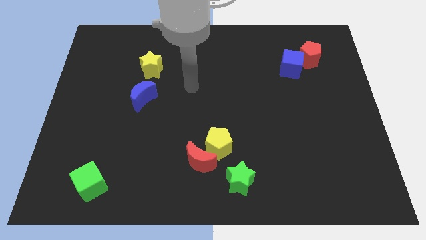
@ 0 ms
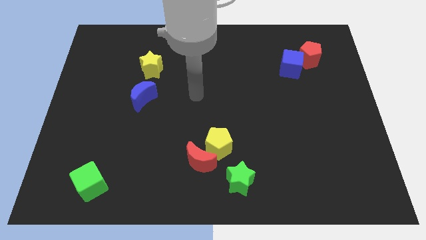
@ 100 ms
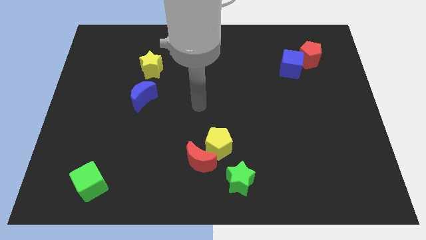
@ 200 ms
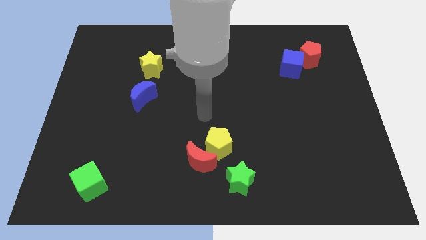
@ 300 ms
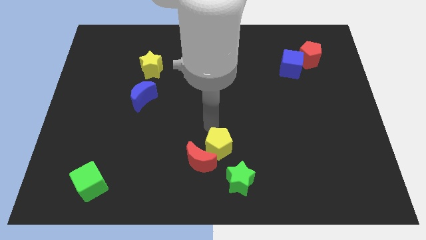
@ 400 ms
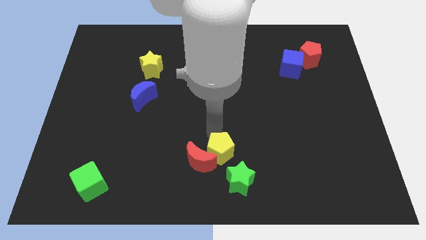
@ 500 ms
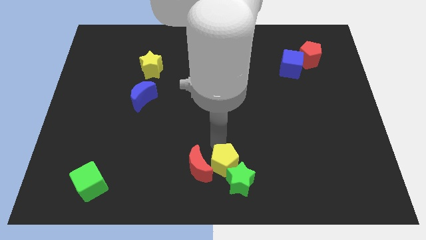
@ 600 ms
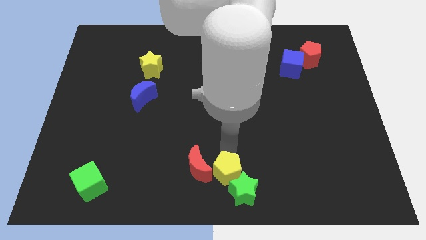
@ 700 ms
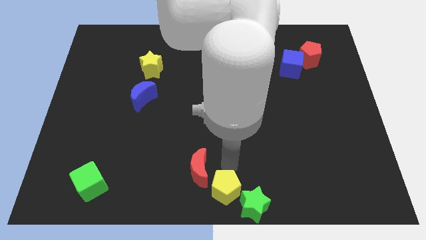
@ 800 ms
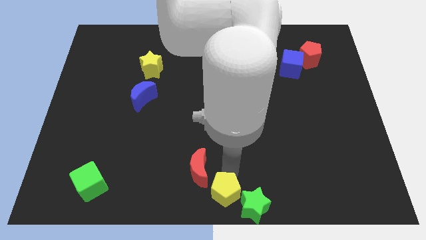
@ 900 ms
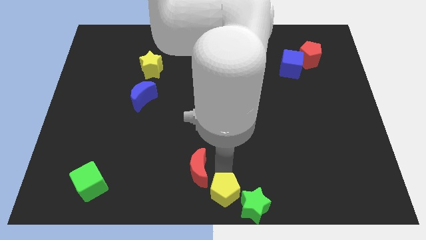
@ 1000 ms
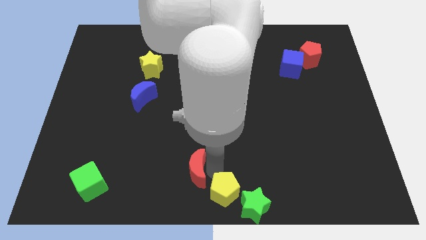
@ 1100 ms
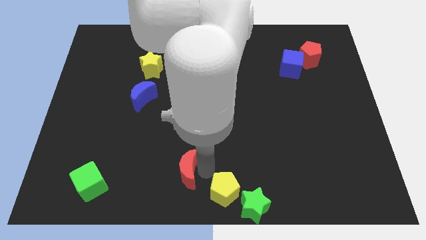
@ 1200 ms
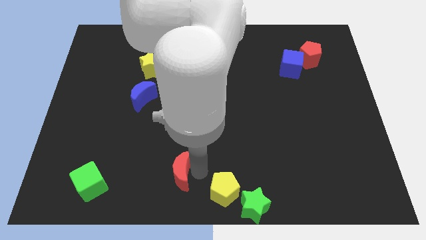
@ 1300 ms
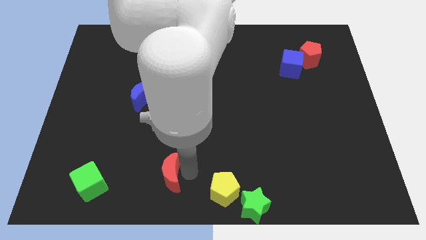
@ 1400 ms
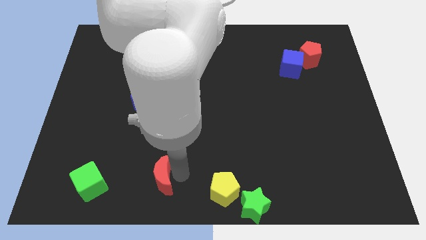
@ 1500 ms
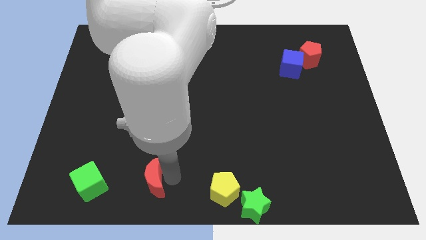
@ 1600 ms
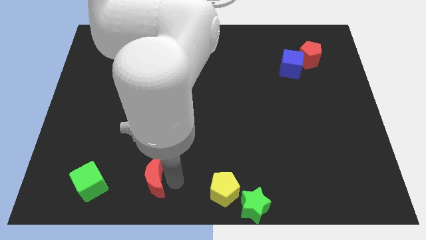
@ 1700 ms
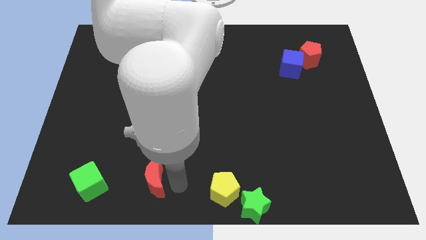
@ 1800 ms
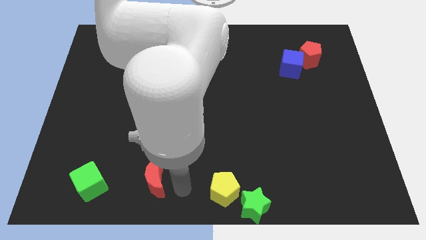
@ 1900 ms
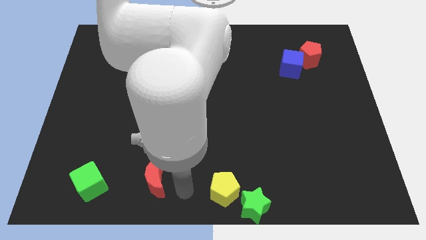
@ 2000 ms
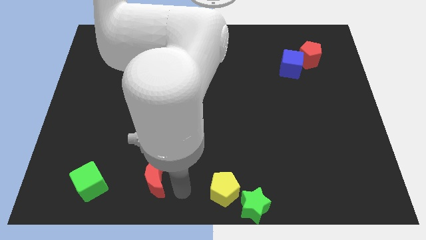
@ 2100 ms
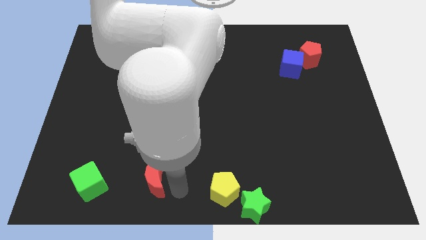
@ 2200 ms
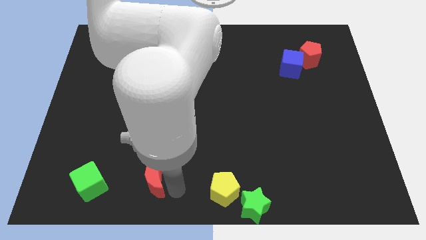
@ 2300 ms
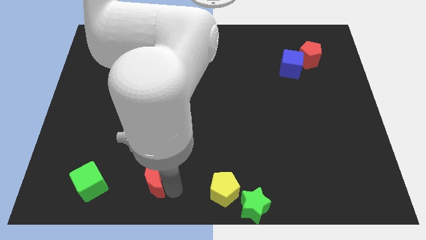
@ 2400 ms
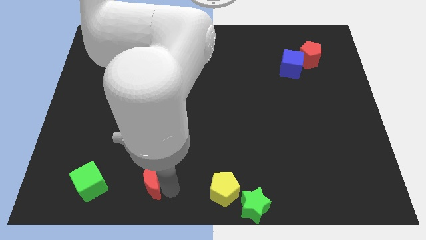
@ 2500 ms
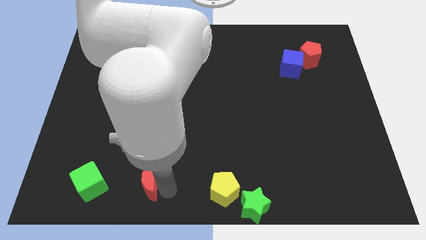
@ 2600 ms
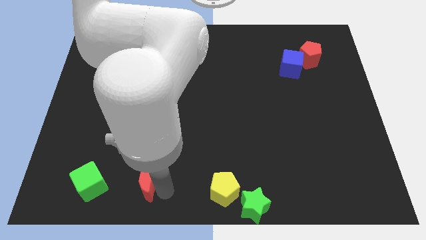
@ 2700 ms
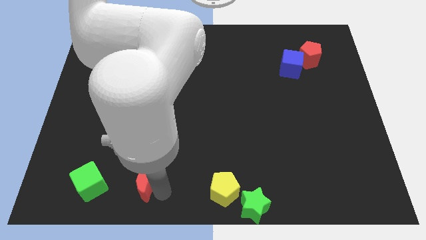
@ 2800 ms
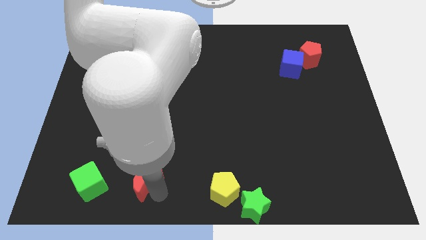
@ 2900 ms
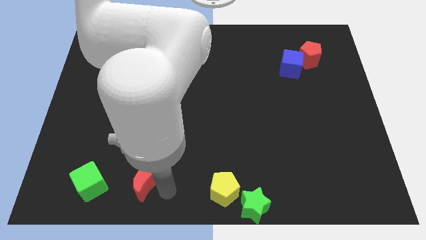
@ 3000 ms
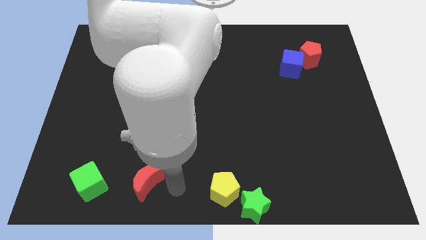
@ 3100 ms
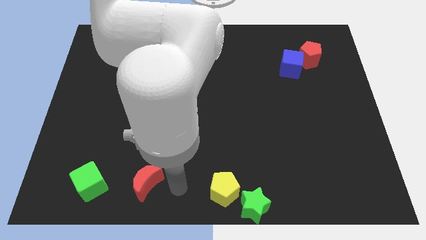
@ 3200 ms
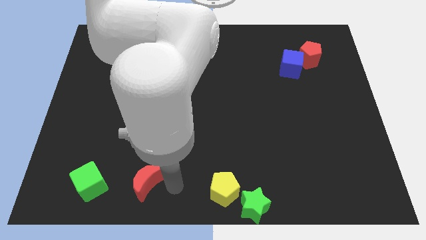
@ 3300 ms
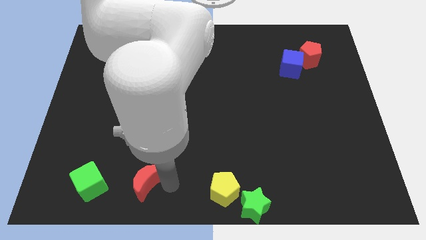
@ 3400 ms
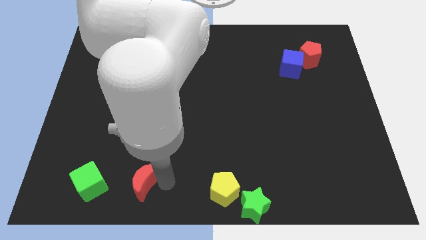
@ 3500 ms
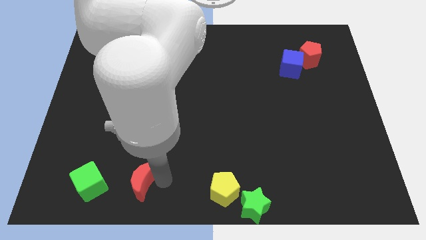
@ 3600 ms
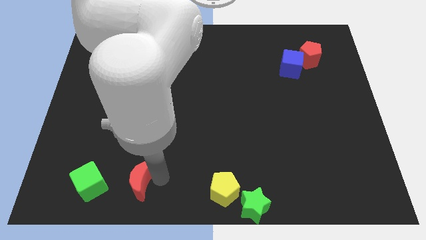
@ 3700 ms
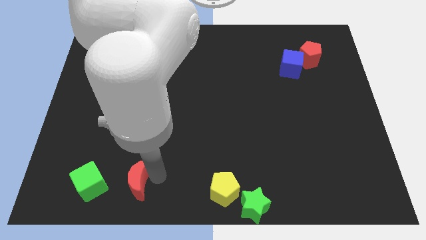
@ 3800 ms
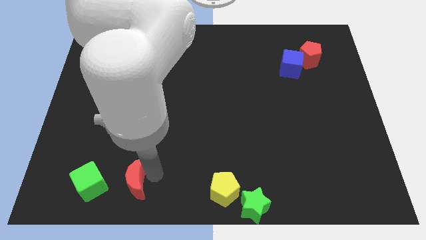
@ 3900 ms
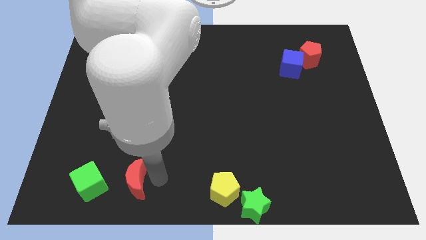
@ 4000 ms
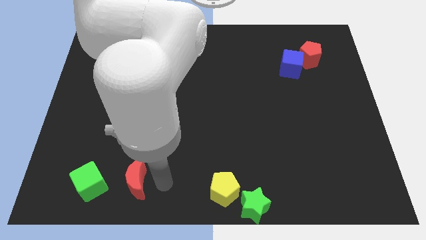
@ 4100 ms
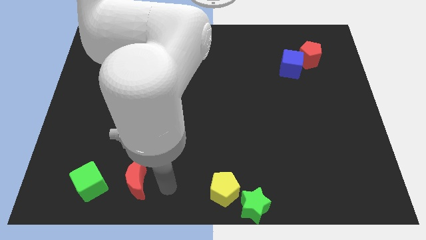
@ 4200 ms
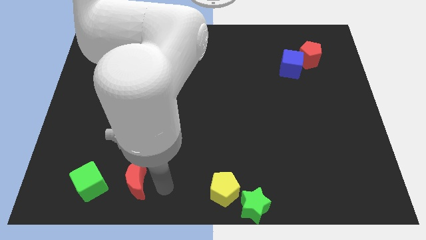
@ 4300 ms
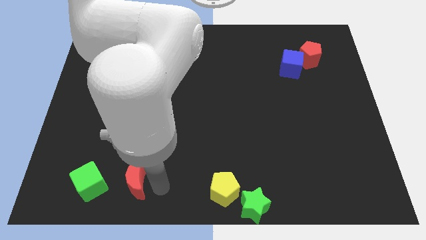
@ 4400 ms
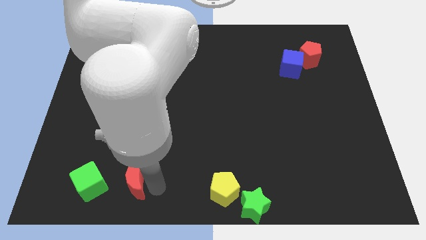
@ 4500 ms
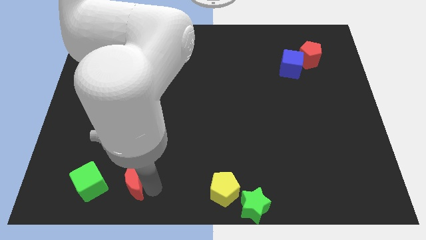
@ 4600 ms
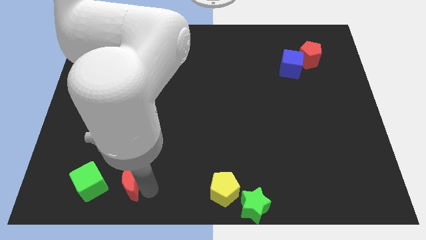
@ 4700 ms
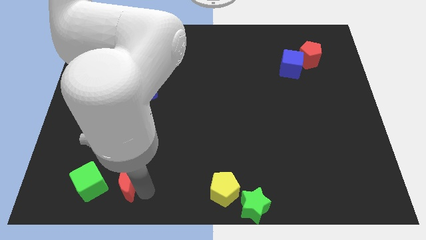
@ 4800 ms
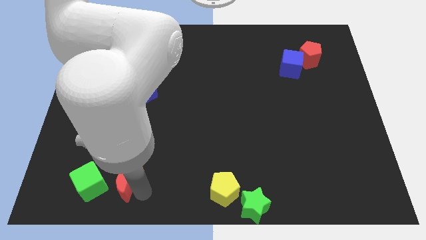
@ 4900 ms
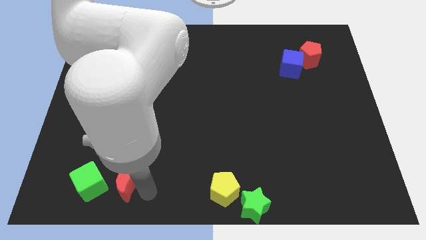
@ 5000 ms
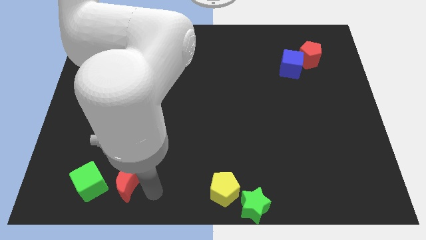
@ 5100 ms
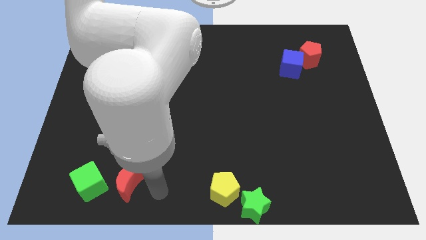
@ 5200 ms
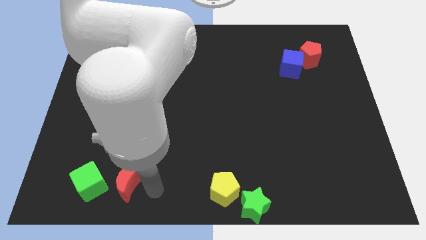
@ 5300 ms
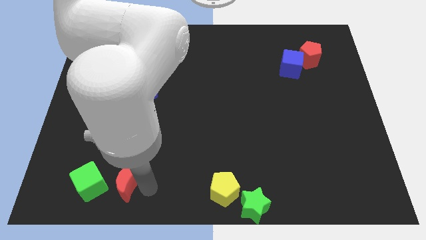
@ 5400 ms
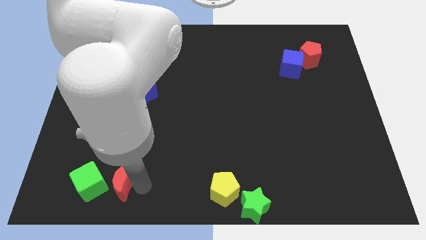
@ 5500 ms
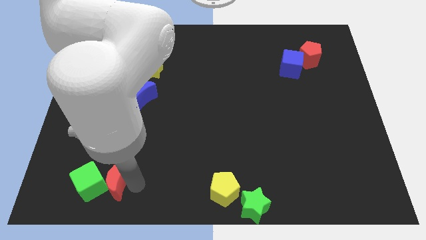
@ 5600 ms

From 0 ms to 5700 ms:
move the red moon next to the green cube

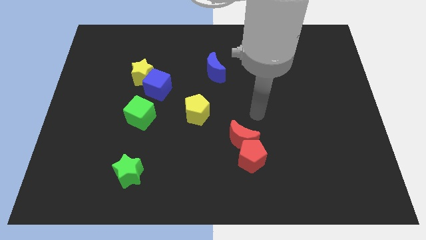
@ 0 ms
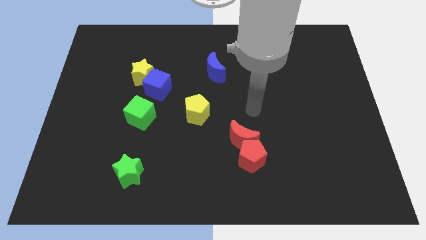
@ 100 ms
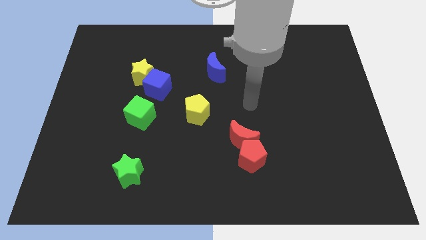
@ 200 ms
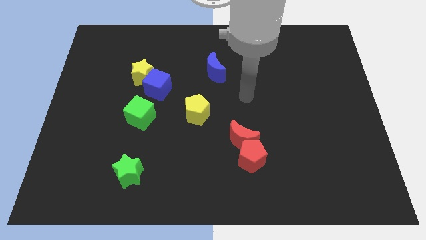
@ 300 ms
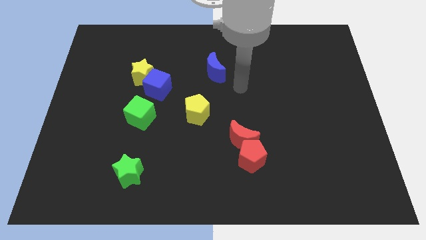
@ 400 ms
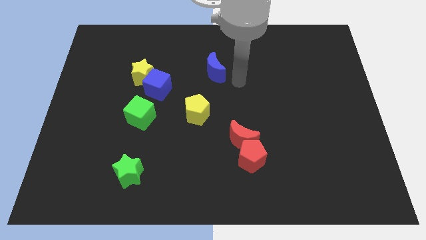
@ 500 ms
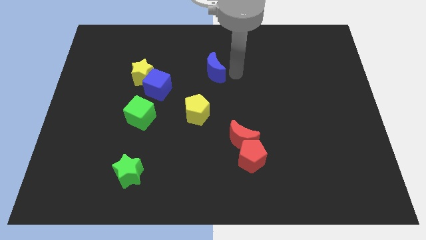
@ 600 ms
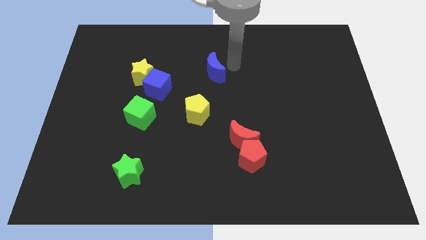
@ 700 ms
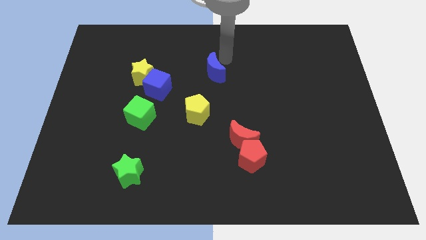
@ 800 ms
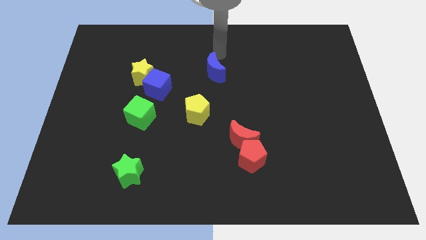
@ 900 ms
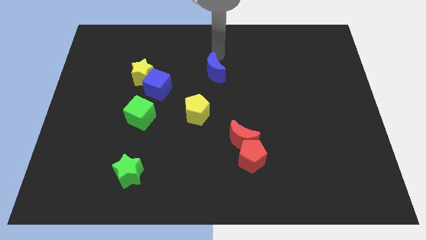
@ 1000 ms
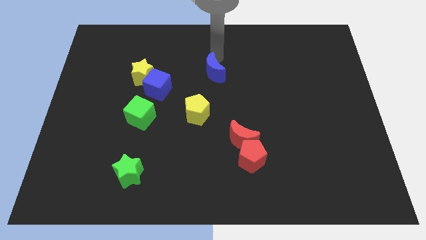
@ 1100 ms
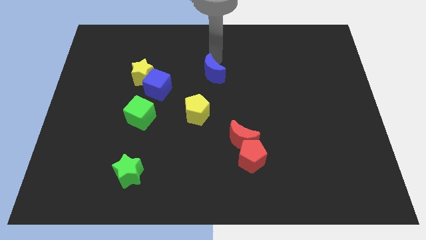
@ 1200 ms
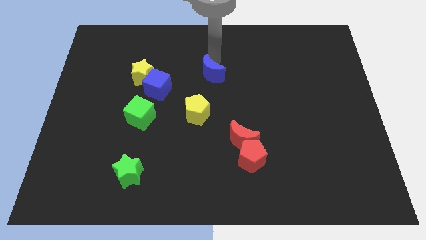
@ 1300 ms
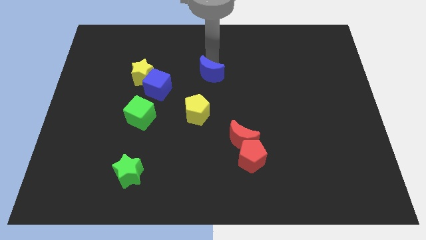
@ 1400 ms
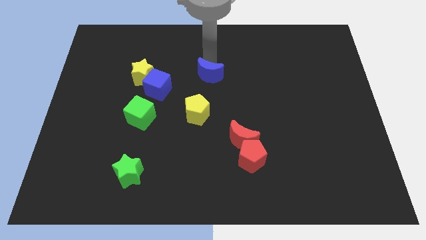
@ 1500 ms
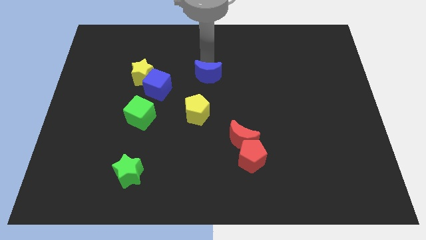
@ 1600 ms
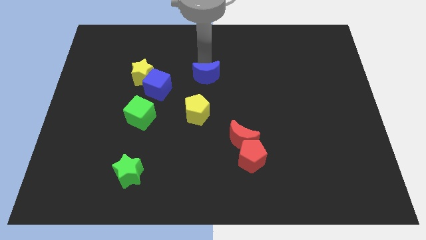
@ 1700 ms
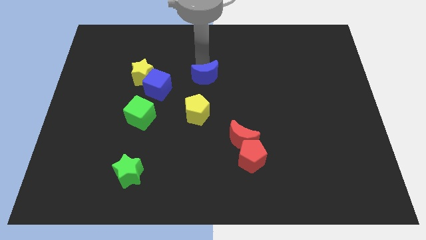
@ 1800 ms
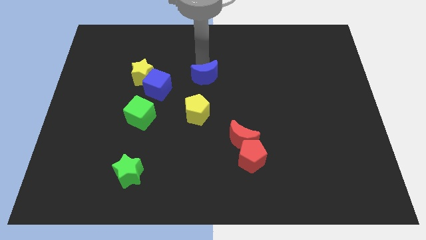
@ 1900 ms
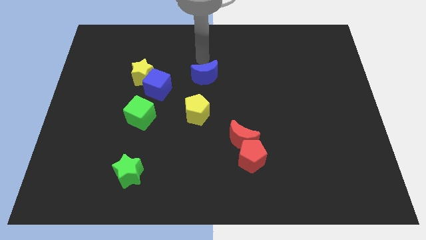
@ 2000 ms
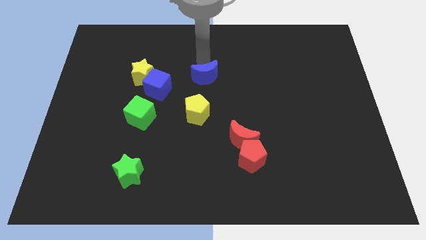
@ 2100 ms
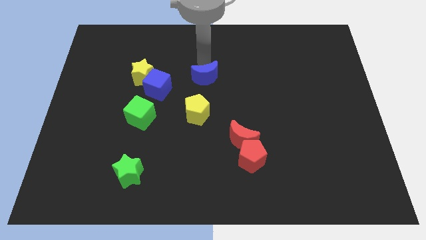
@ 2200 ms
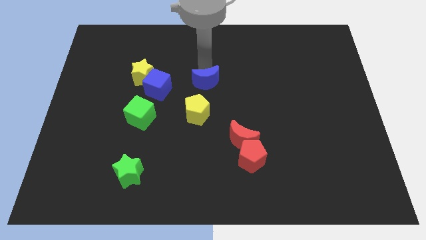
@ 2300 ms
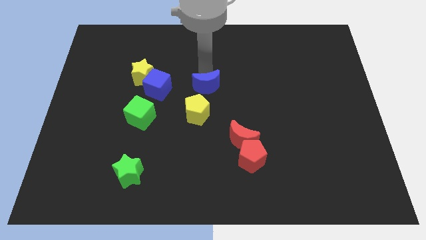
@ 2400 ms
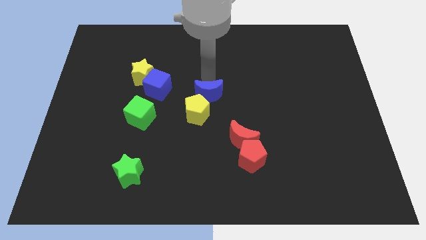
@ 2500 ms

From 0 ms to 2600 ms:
push the blue moon close to the yellow pentagon
